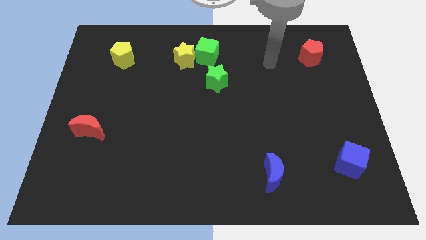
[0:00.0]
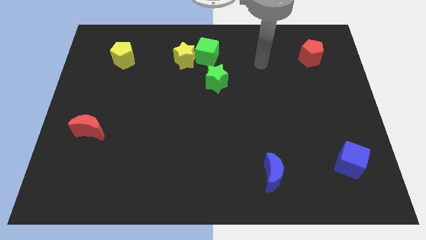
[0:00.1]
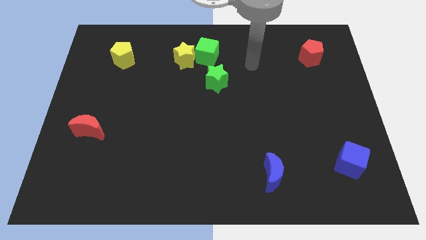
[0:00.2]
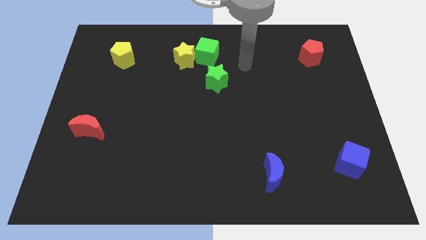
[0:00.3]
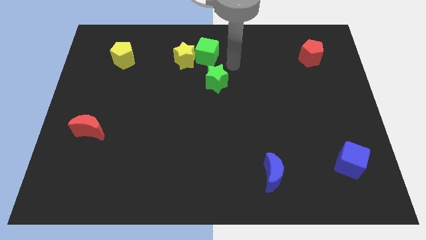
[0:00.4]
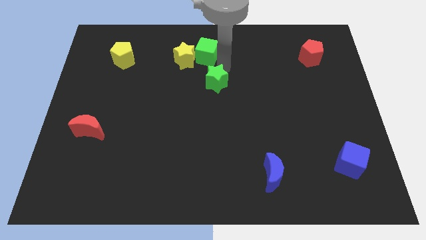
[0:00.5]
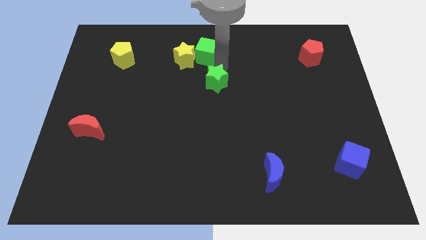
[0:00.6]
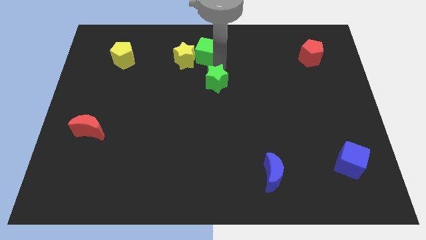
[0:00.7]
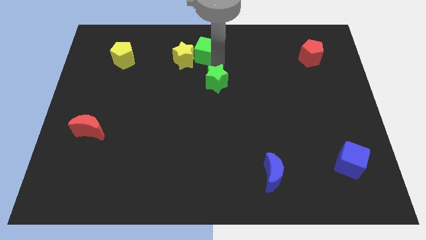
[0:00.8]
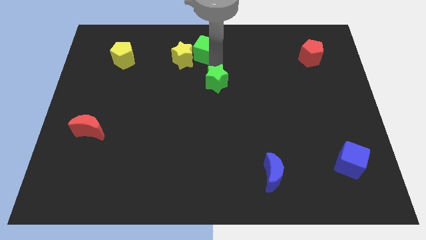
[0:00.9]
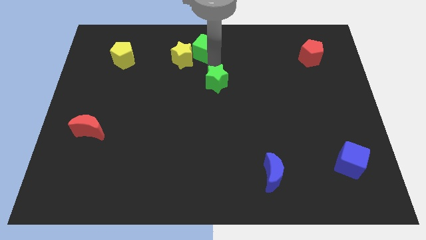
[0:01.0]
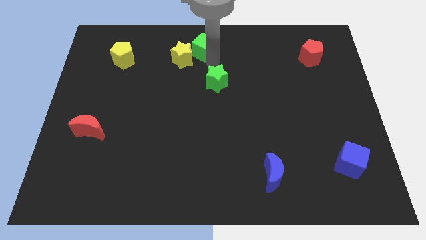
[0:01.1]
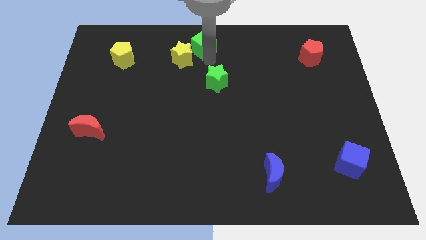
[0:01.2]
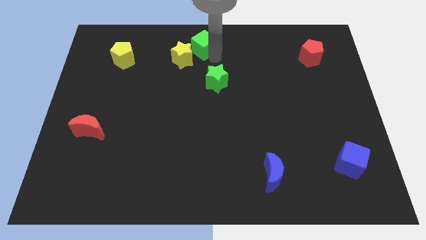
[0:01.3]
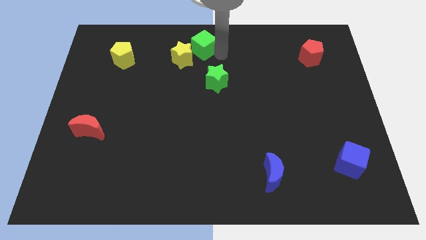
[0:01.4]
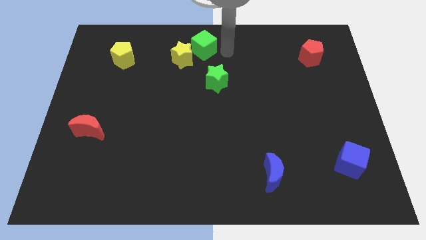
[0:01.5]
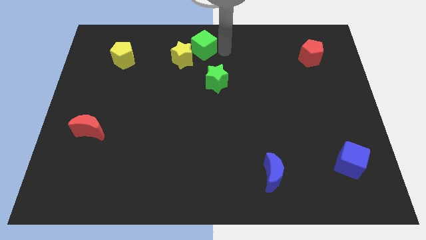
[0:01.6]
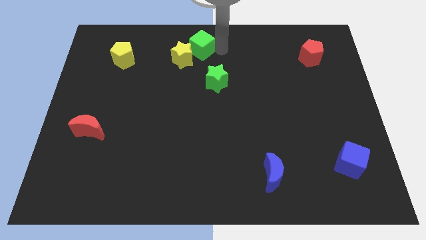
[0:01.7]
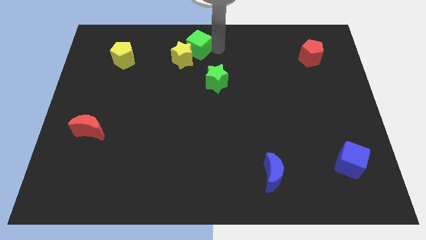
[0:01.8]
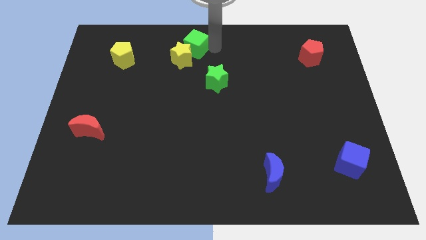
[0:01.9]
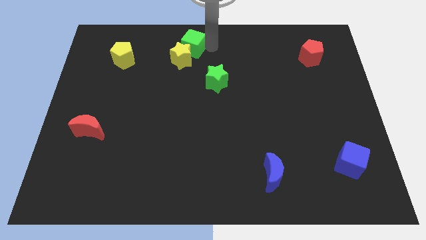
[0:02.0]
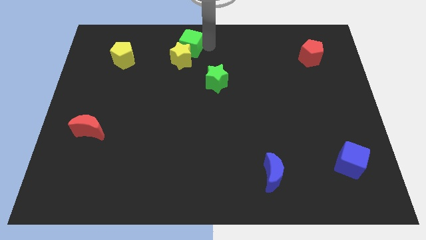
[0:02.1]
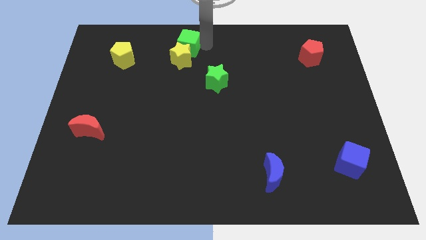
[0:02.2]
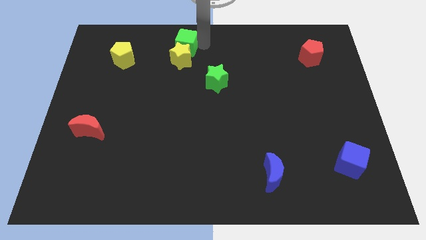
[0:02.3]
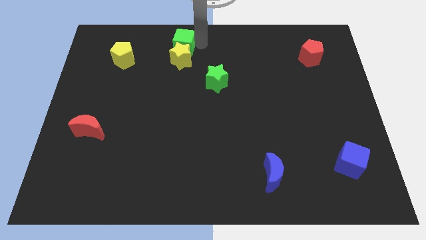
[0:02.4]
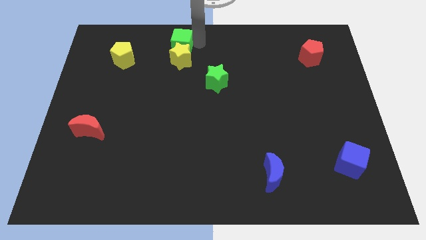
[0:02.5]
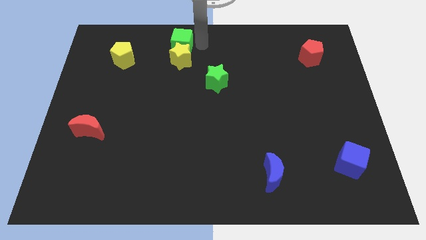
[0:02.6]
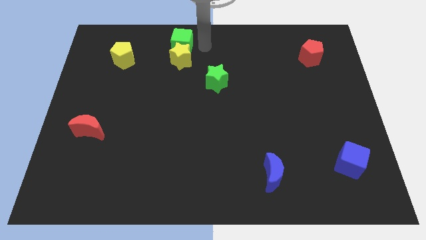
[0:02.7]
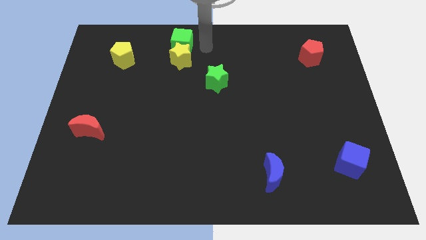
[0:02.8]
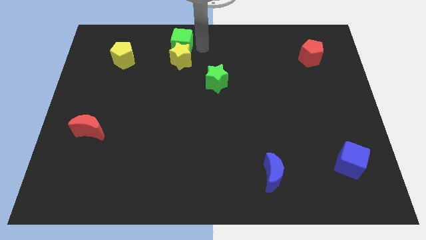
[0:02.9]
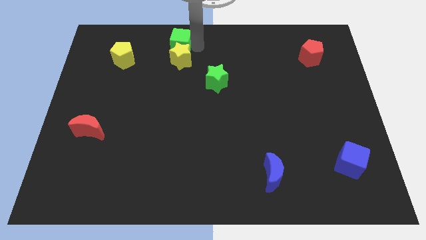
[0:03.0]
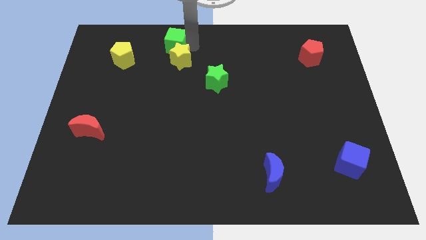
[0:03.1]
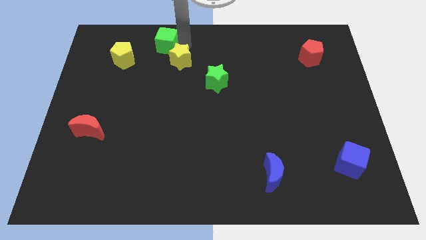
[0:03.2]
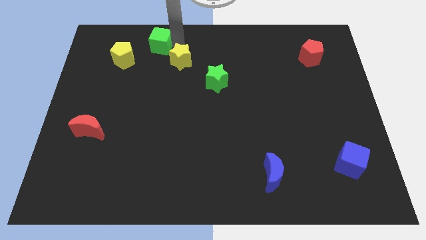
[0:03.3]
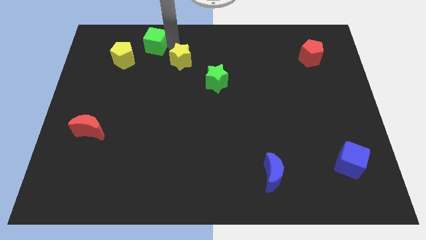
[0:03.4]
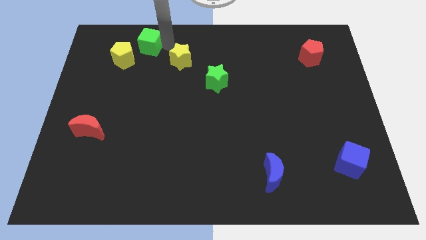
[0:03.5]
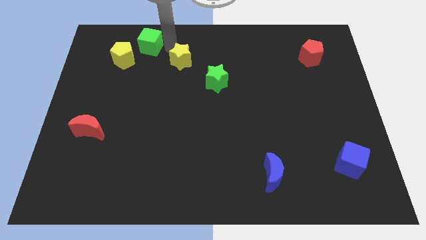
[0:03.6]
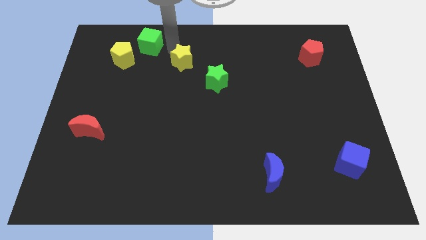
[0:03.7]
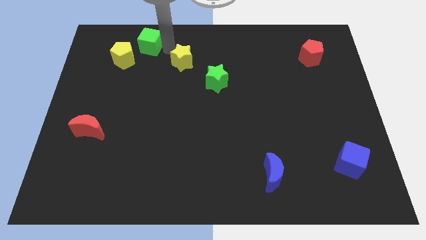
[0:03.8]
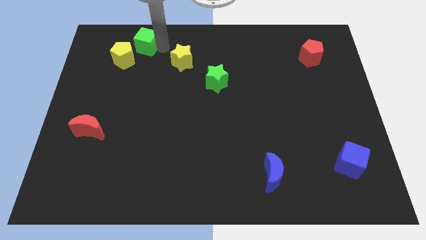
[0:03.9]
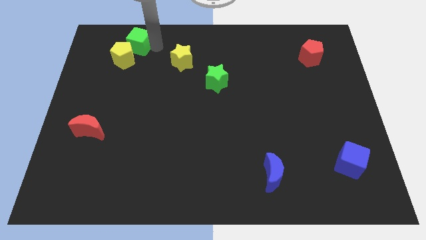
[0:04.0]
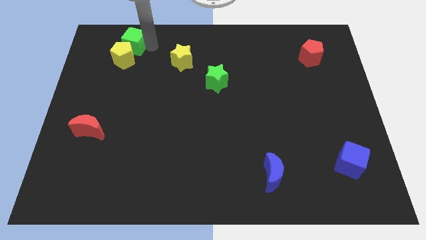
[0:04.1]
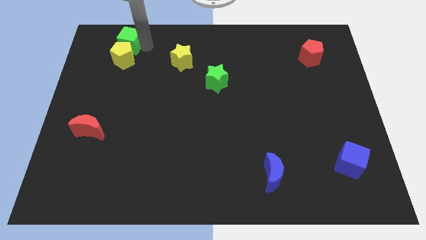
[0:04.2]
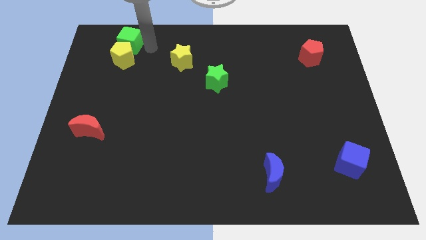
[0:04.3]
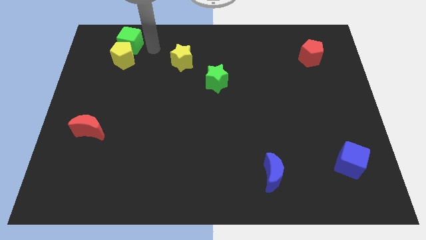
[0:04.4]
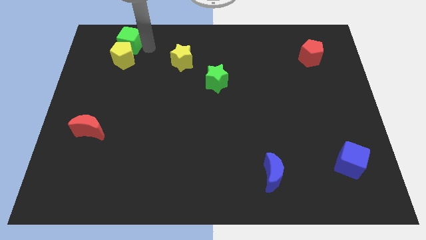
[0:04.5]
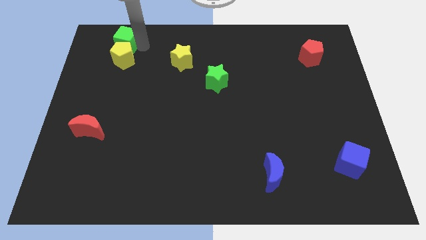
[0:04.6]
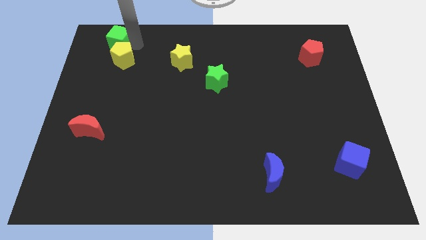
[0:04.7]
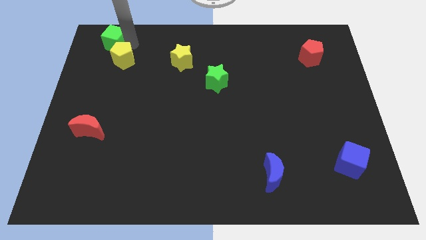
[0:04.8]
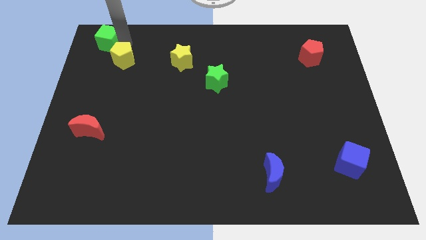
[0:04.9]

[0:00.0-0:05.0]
push the green cube to the upper left corner

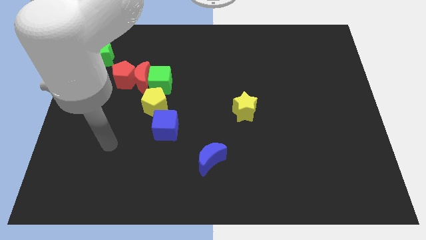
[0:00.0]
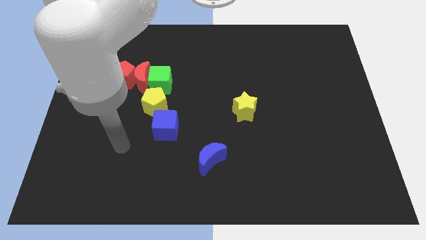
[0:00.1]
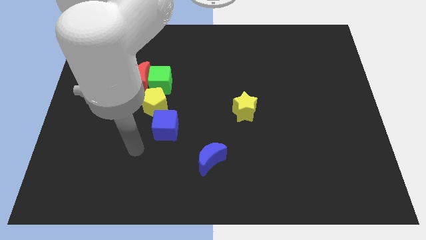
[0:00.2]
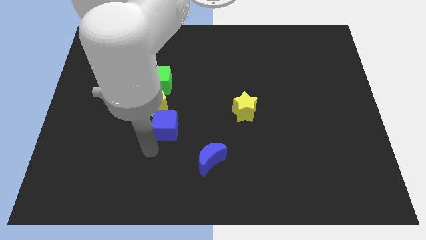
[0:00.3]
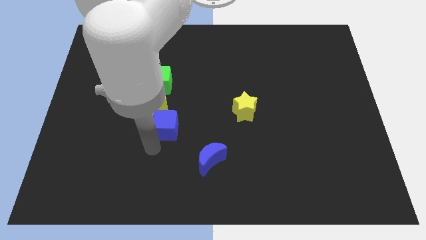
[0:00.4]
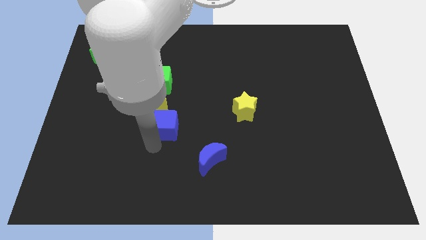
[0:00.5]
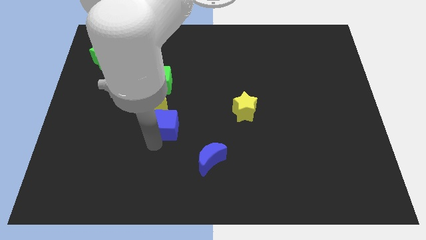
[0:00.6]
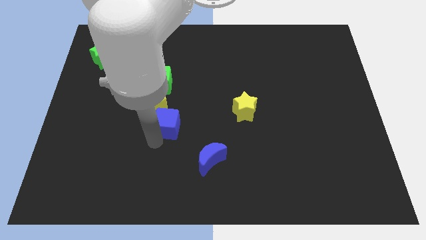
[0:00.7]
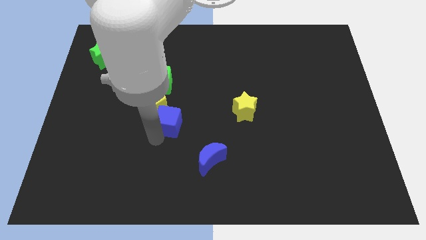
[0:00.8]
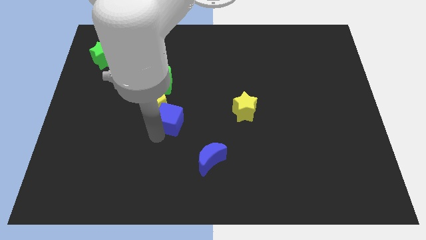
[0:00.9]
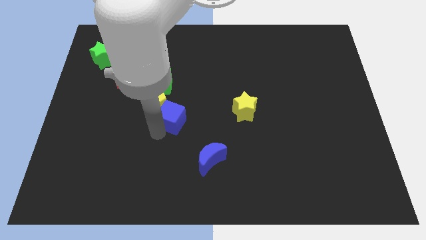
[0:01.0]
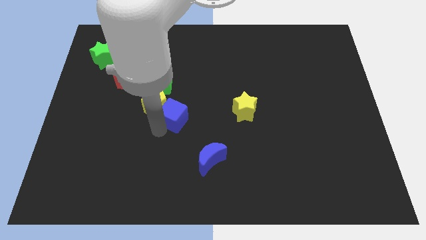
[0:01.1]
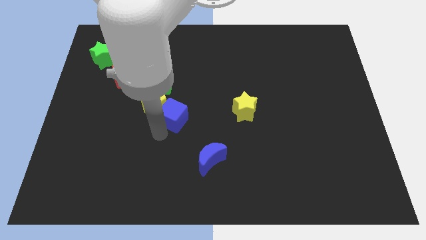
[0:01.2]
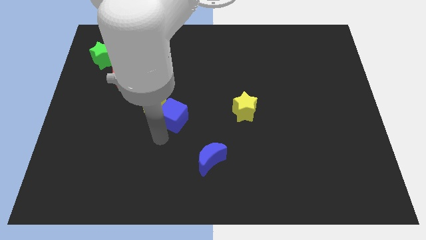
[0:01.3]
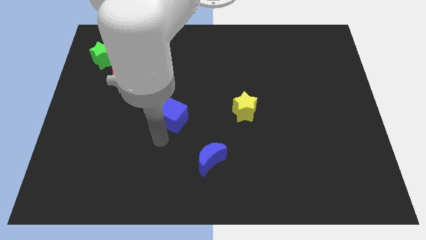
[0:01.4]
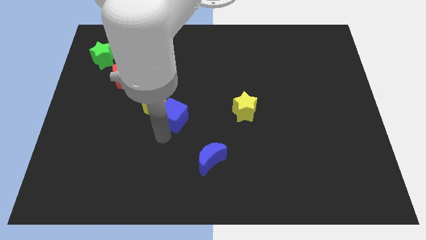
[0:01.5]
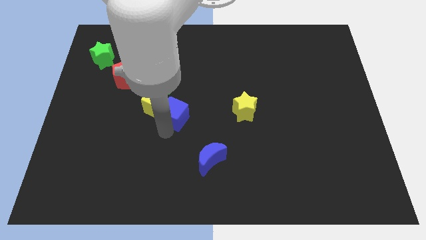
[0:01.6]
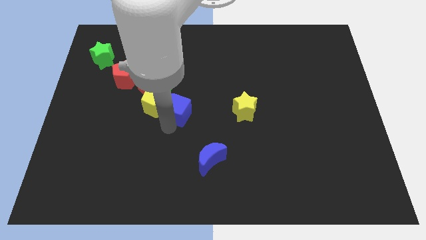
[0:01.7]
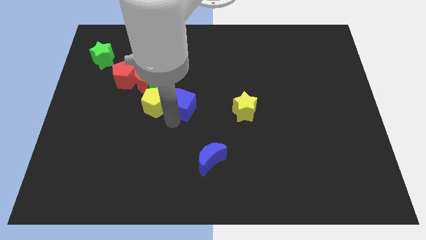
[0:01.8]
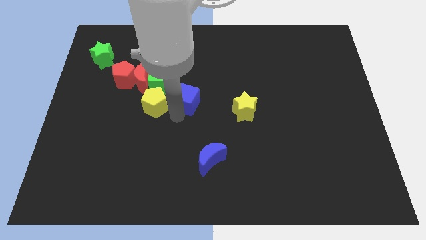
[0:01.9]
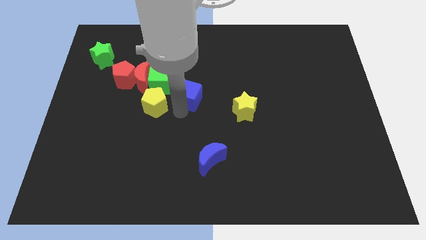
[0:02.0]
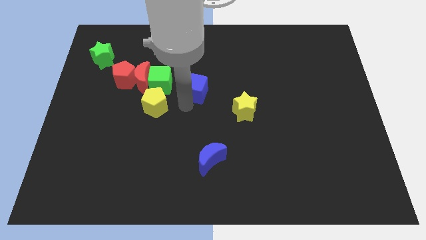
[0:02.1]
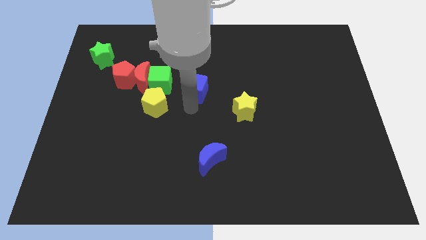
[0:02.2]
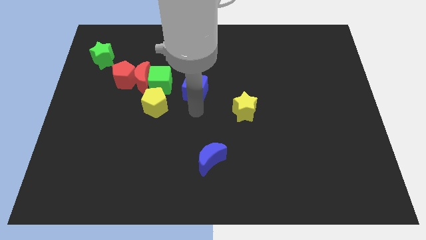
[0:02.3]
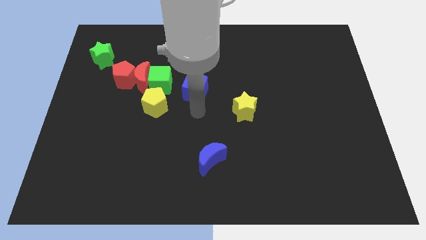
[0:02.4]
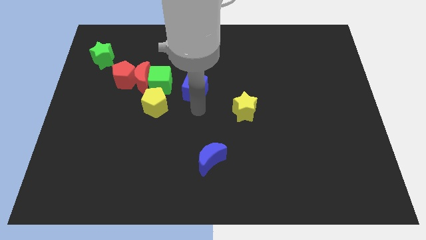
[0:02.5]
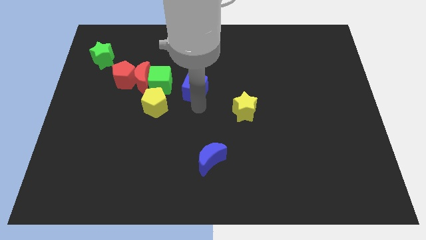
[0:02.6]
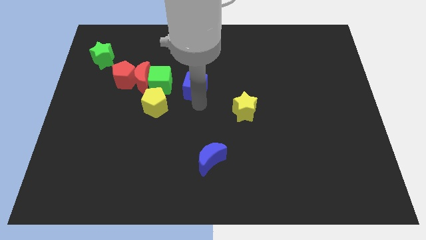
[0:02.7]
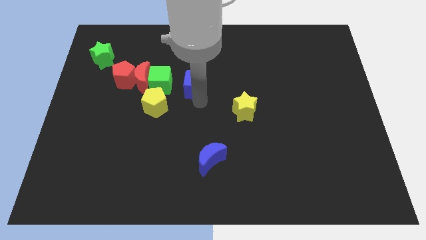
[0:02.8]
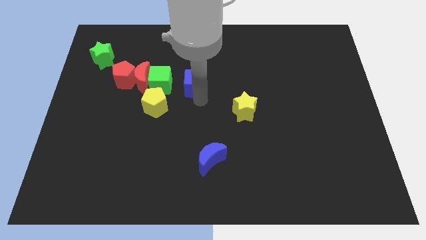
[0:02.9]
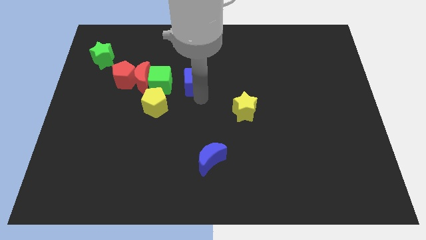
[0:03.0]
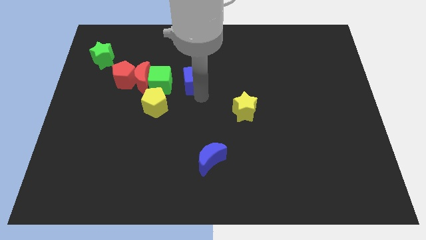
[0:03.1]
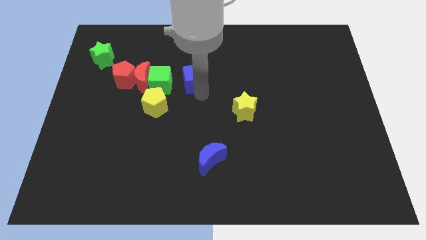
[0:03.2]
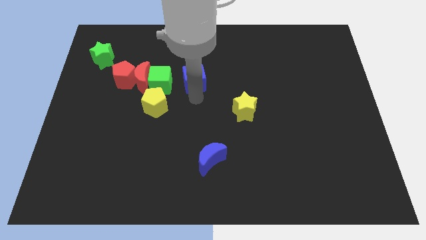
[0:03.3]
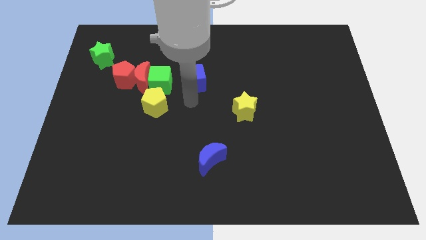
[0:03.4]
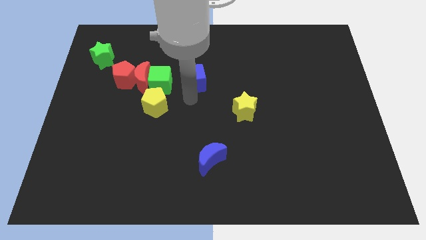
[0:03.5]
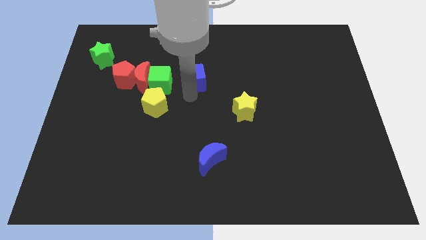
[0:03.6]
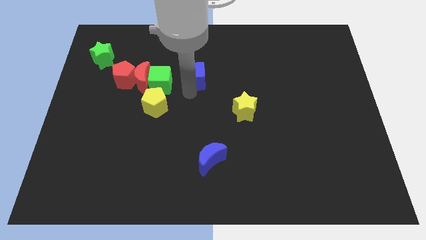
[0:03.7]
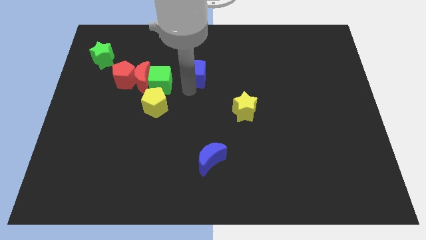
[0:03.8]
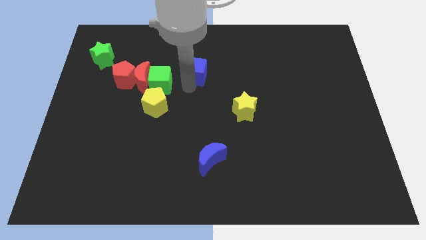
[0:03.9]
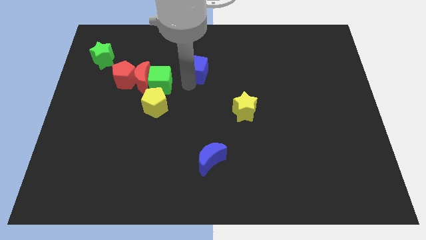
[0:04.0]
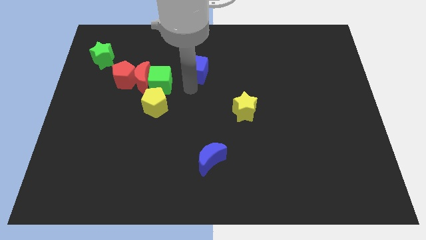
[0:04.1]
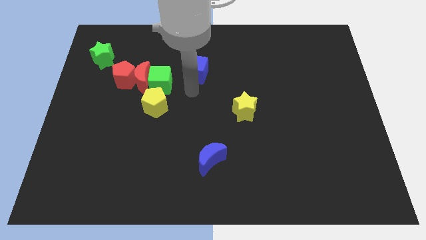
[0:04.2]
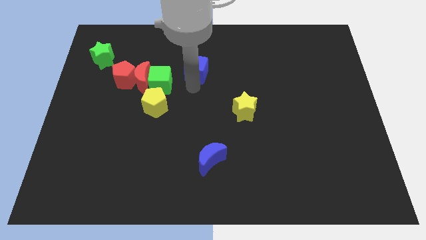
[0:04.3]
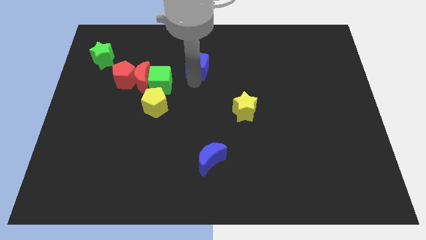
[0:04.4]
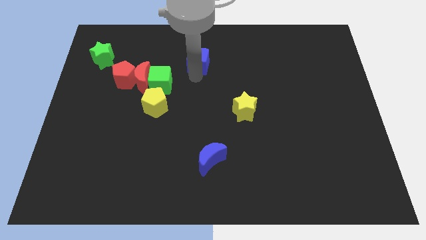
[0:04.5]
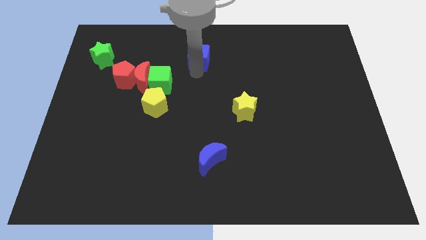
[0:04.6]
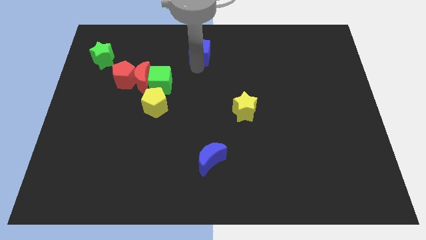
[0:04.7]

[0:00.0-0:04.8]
move the blue cube to the towards your base
